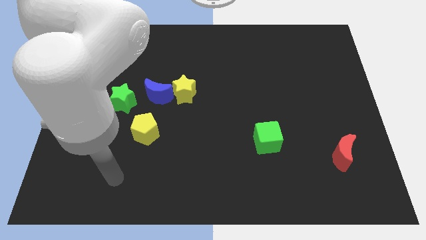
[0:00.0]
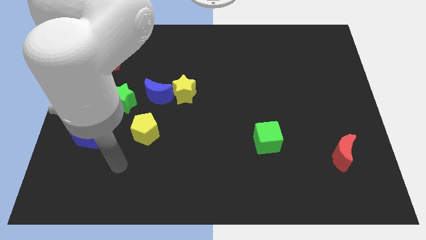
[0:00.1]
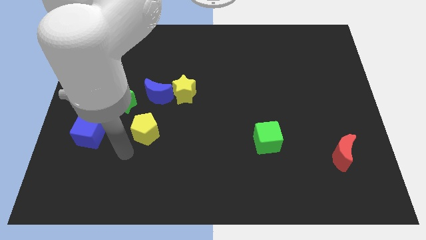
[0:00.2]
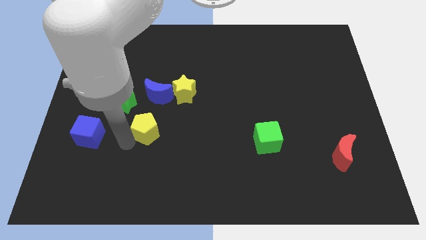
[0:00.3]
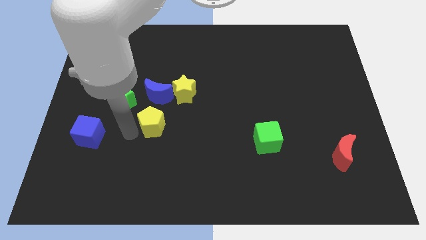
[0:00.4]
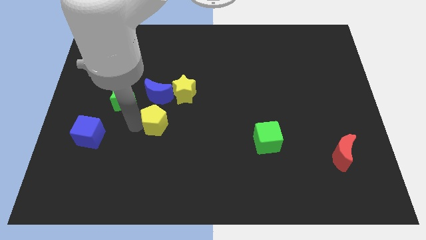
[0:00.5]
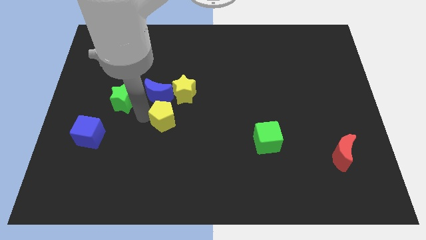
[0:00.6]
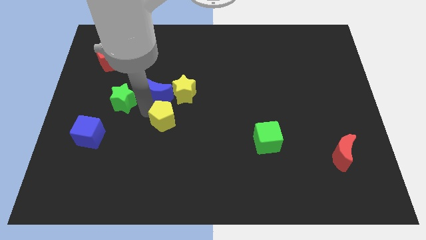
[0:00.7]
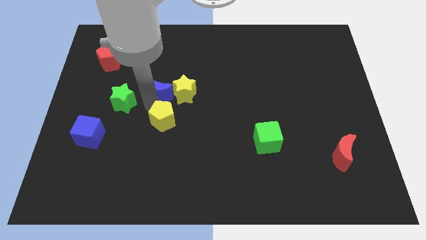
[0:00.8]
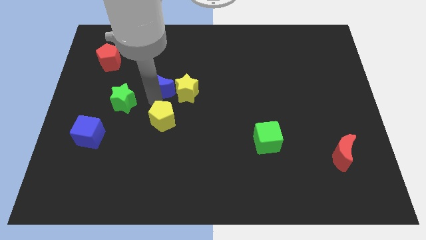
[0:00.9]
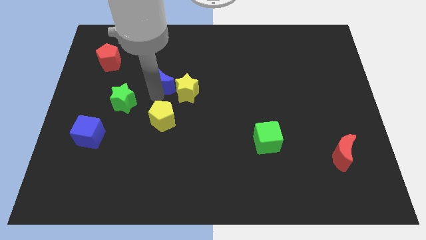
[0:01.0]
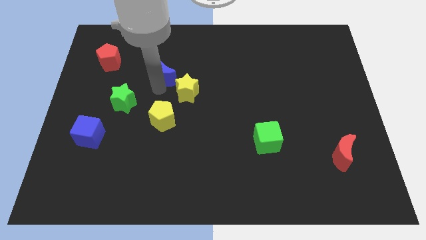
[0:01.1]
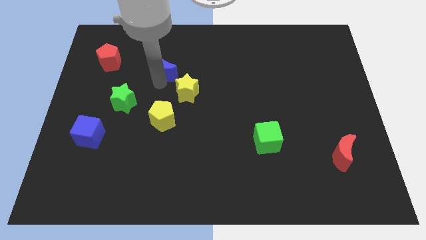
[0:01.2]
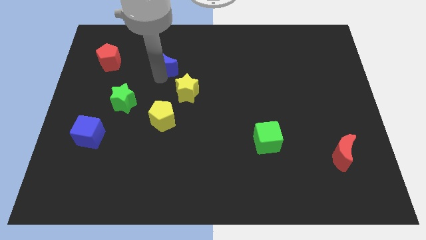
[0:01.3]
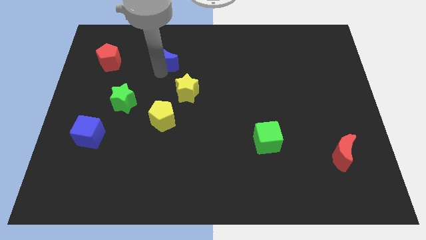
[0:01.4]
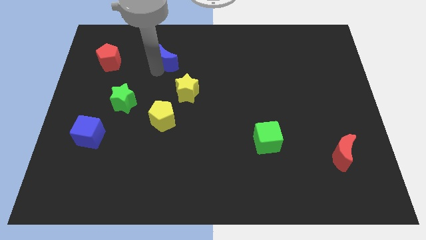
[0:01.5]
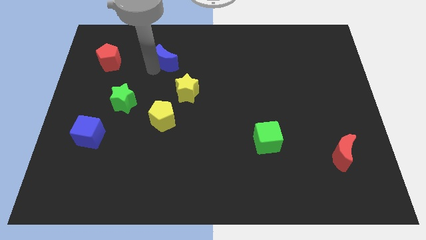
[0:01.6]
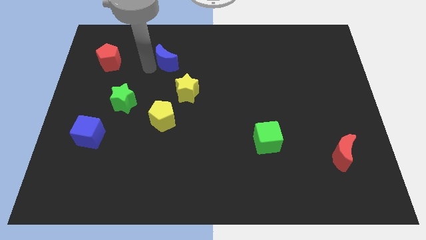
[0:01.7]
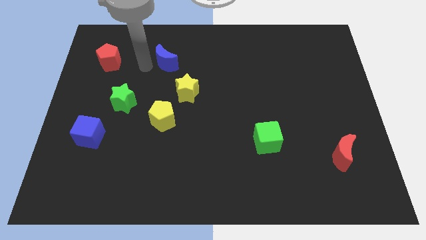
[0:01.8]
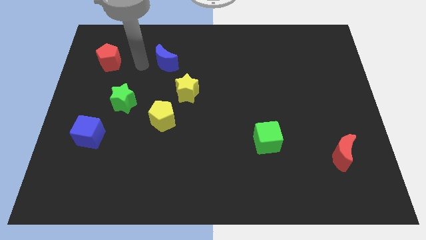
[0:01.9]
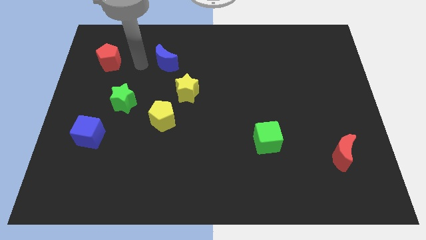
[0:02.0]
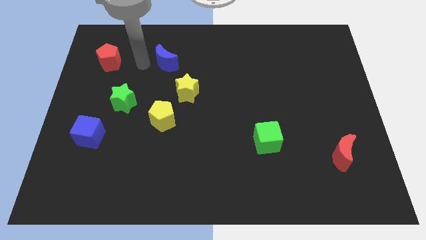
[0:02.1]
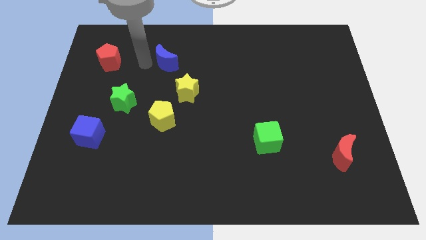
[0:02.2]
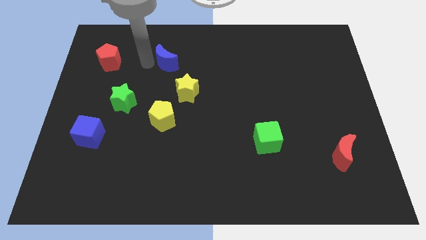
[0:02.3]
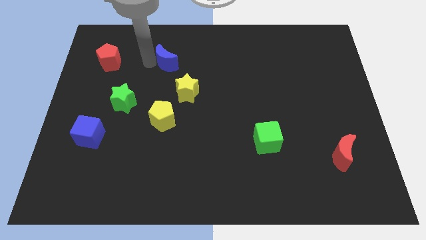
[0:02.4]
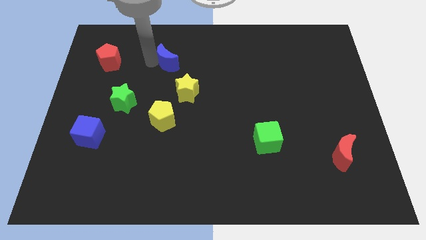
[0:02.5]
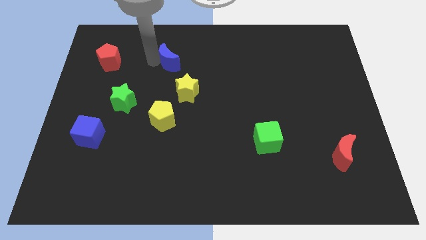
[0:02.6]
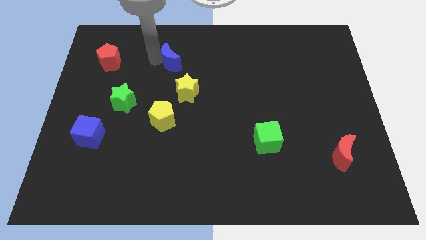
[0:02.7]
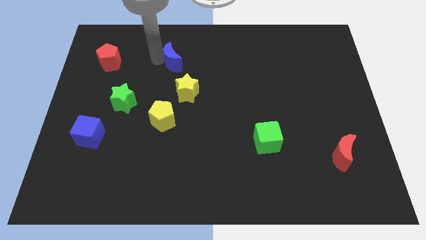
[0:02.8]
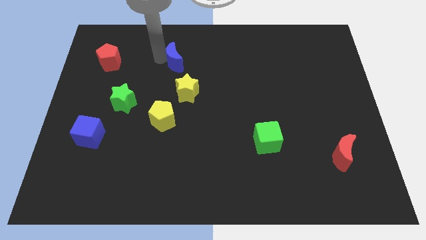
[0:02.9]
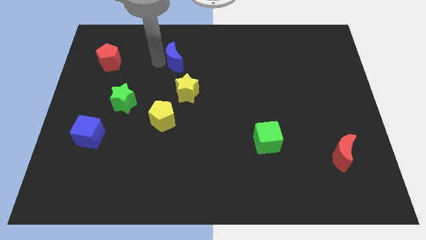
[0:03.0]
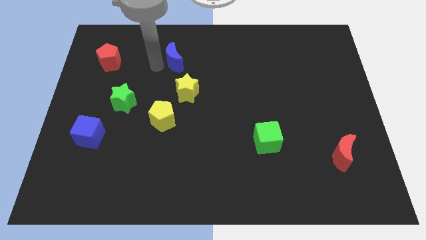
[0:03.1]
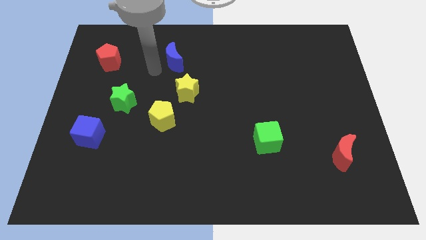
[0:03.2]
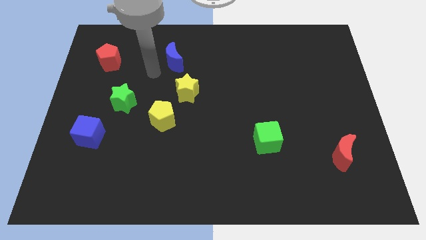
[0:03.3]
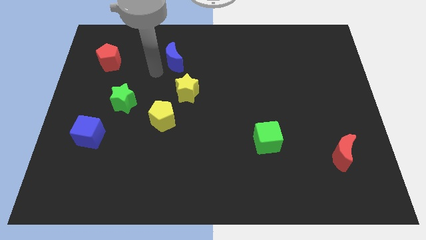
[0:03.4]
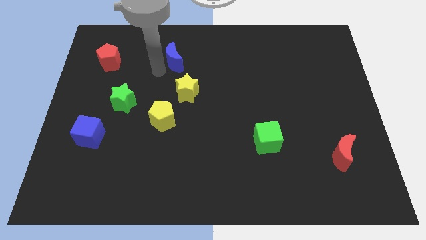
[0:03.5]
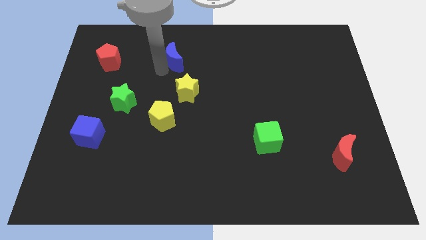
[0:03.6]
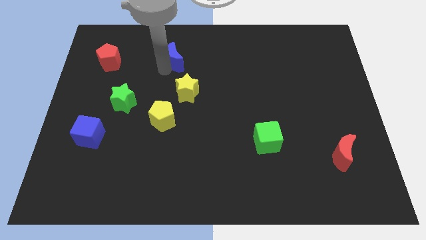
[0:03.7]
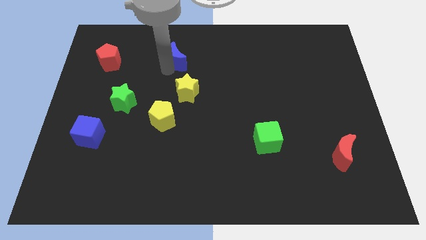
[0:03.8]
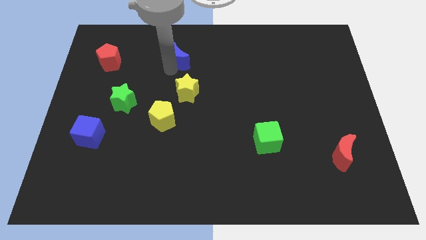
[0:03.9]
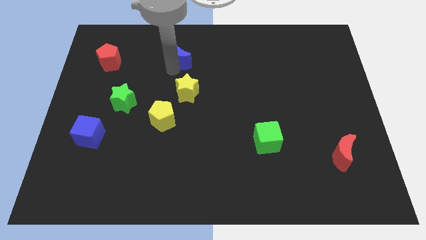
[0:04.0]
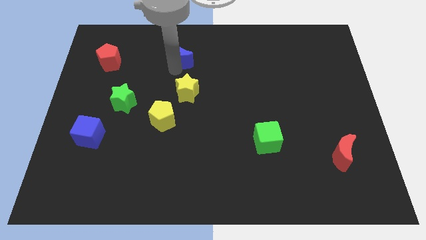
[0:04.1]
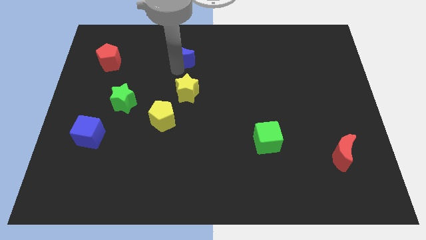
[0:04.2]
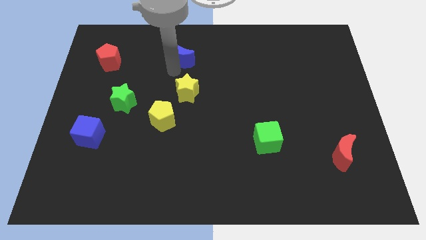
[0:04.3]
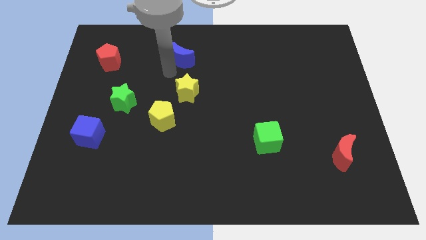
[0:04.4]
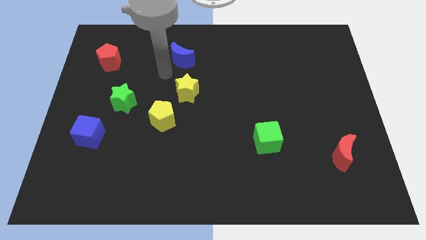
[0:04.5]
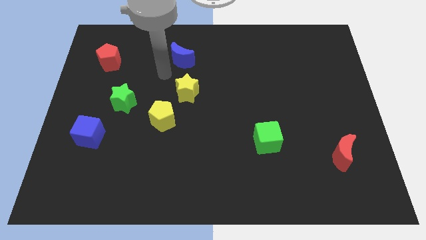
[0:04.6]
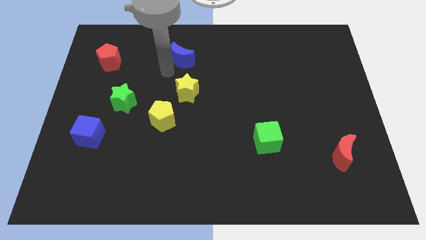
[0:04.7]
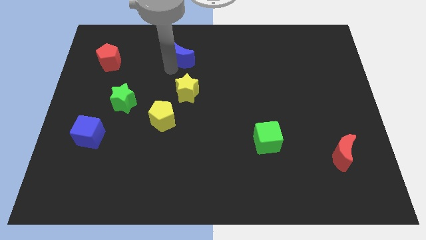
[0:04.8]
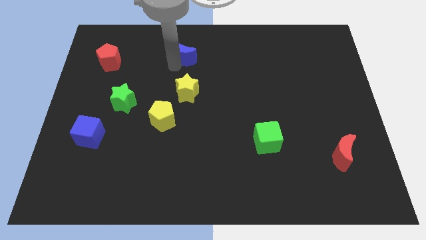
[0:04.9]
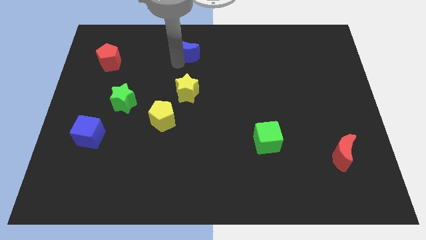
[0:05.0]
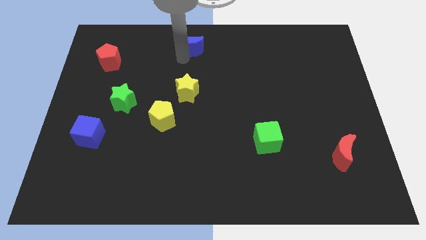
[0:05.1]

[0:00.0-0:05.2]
slide the blue moon to the towards your base

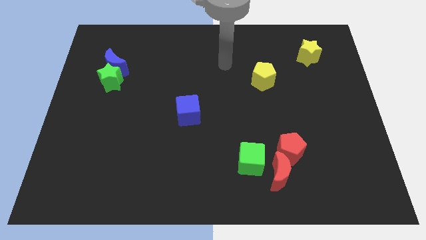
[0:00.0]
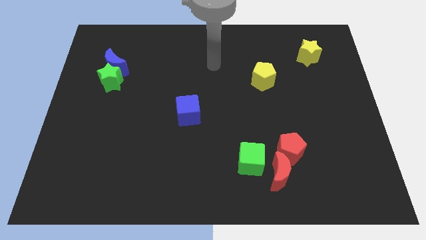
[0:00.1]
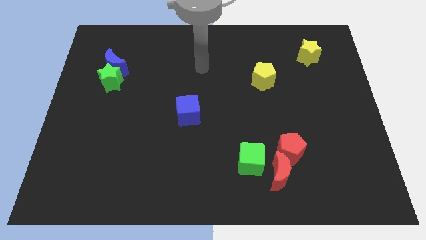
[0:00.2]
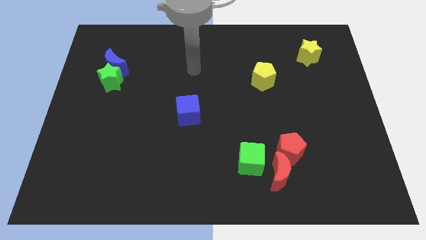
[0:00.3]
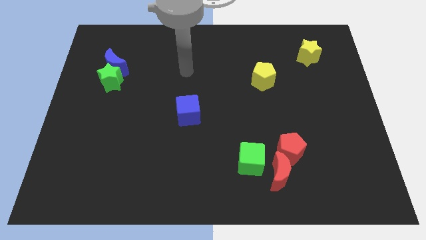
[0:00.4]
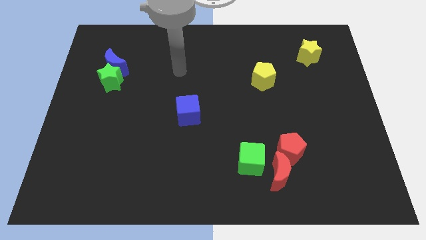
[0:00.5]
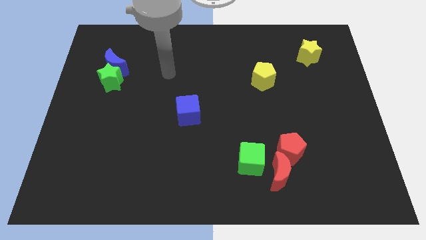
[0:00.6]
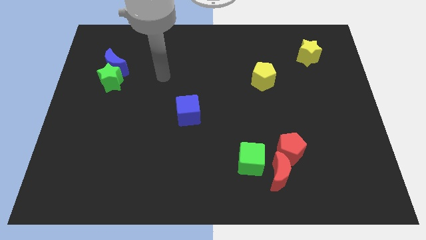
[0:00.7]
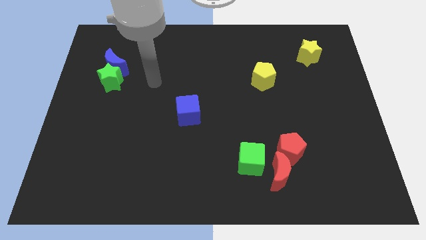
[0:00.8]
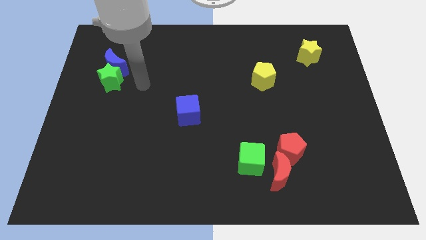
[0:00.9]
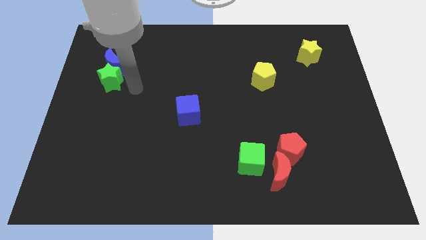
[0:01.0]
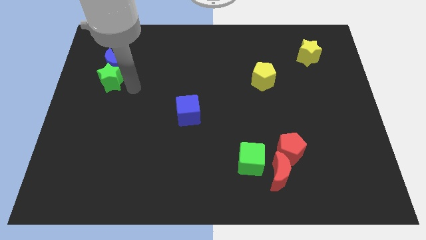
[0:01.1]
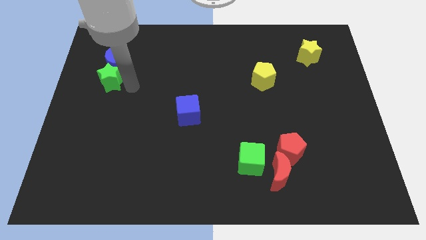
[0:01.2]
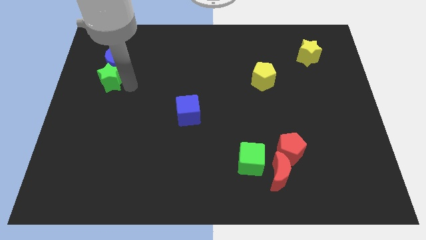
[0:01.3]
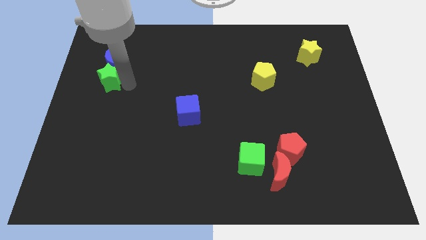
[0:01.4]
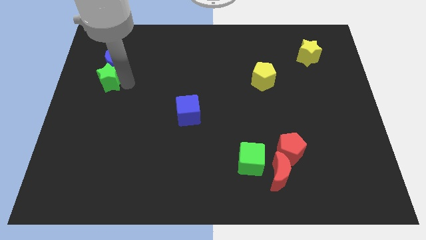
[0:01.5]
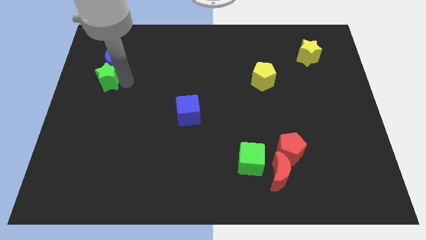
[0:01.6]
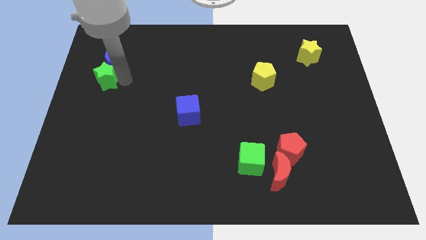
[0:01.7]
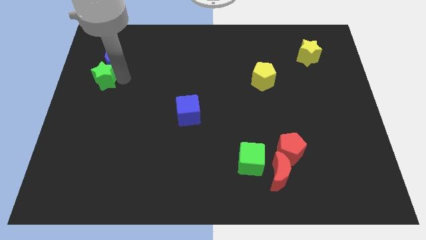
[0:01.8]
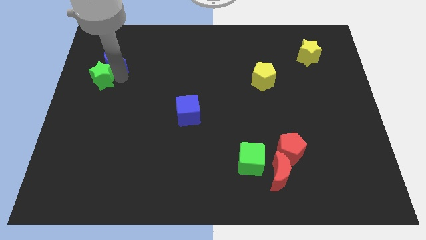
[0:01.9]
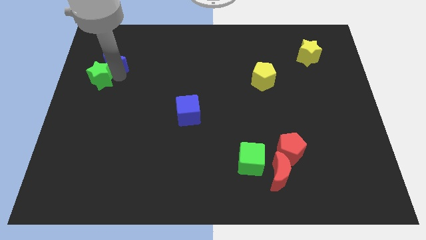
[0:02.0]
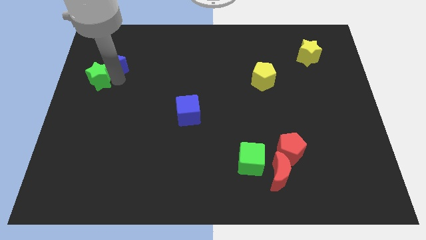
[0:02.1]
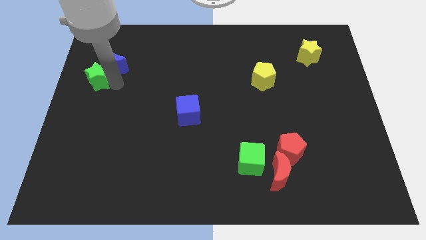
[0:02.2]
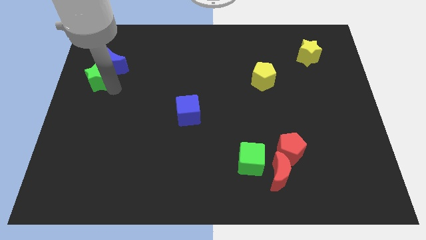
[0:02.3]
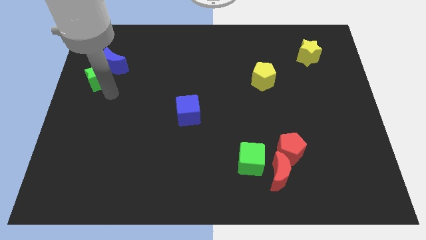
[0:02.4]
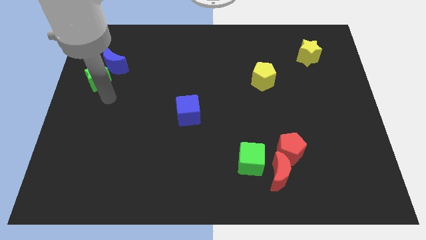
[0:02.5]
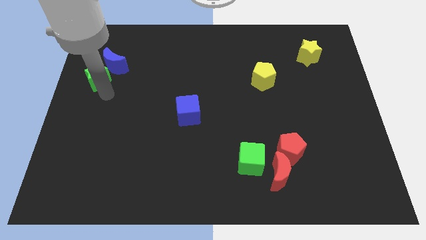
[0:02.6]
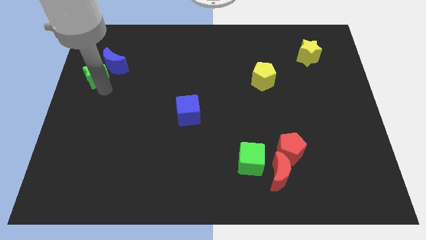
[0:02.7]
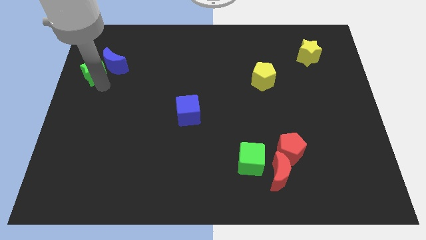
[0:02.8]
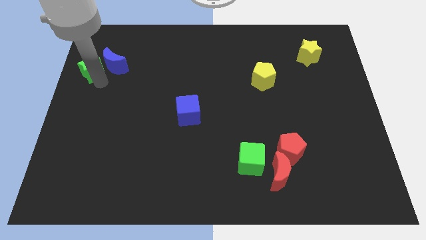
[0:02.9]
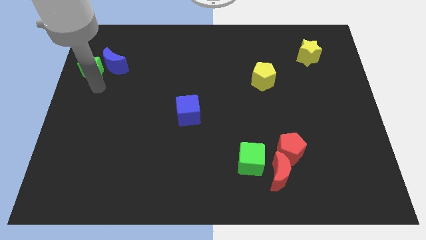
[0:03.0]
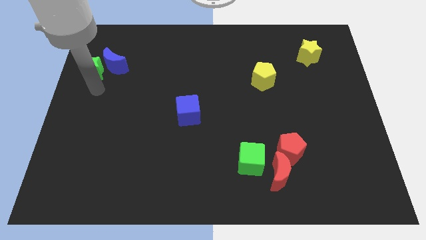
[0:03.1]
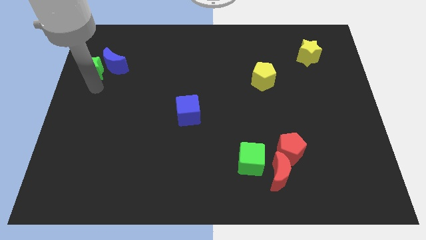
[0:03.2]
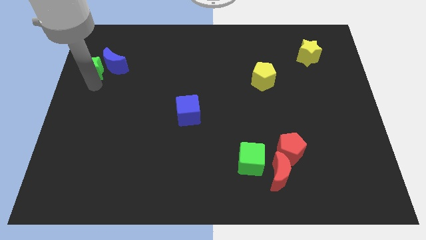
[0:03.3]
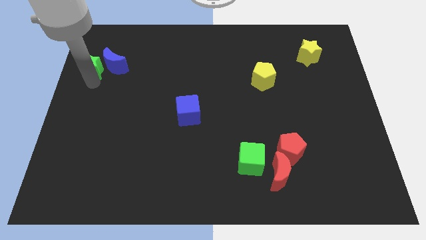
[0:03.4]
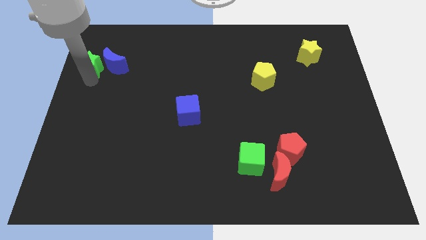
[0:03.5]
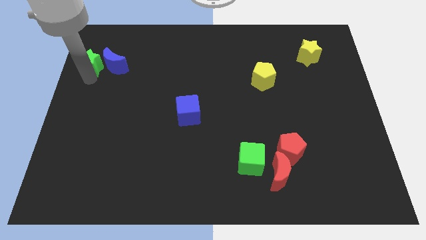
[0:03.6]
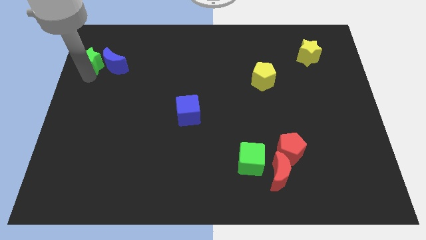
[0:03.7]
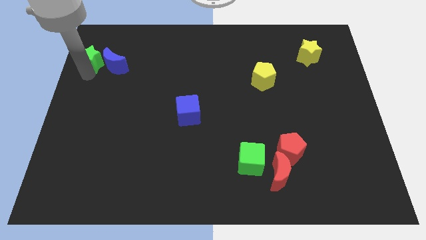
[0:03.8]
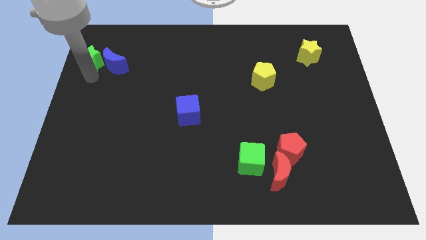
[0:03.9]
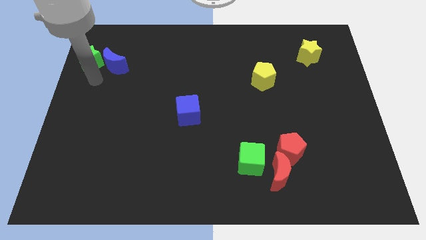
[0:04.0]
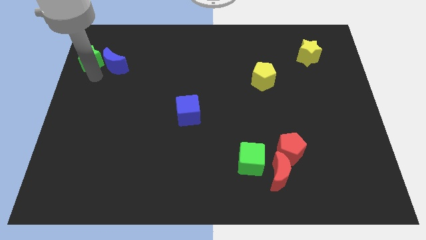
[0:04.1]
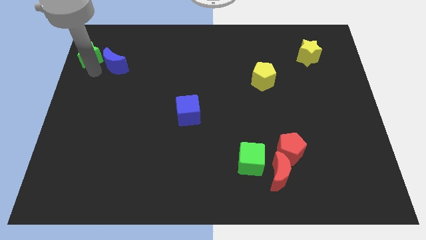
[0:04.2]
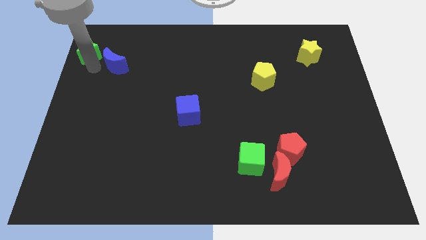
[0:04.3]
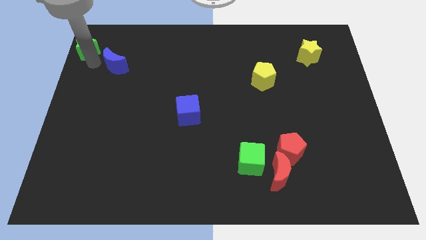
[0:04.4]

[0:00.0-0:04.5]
slide the green star to the upper left corner
